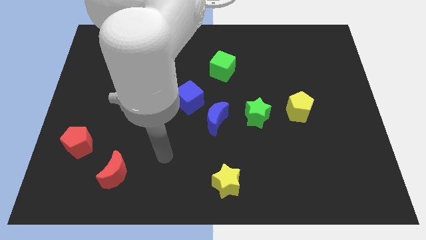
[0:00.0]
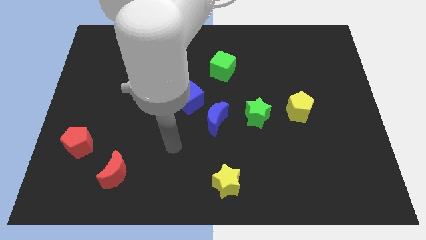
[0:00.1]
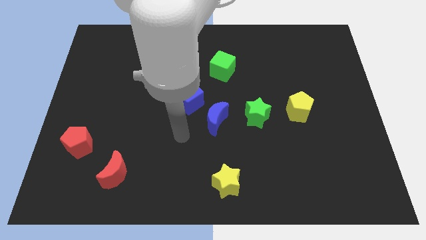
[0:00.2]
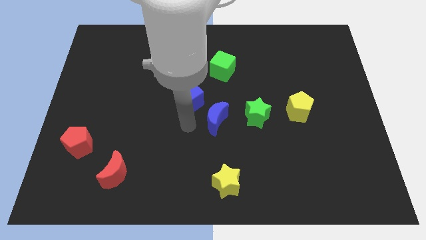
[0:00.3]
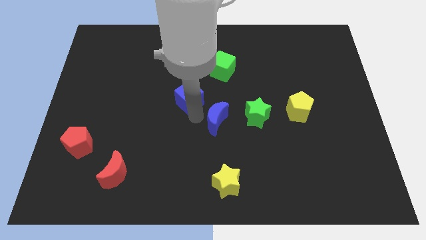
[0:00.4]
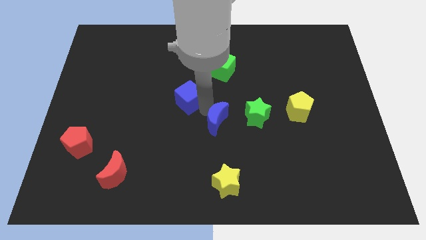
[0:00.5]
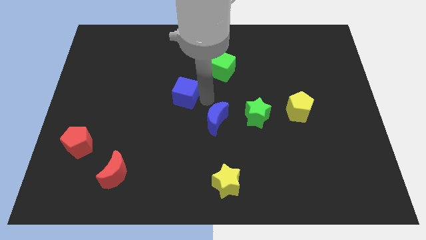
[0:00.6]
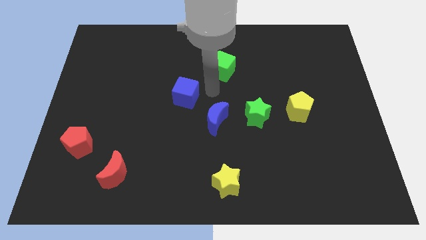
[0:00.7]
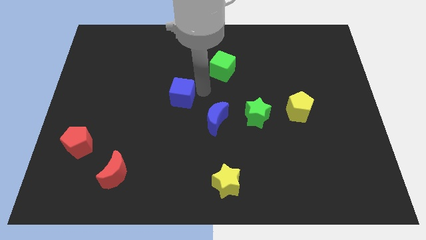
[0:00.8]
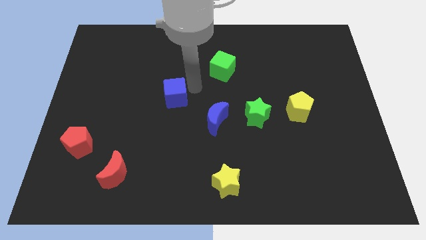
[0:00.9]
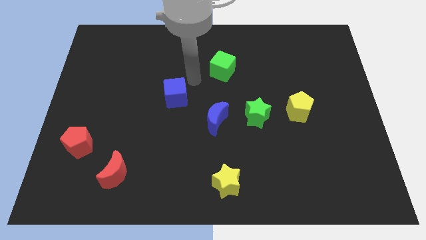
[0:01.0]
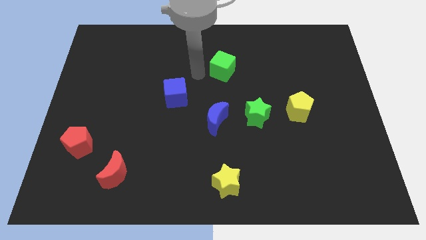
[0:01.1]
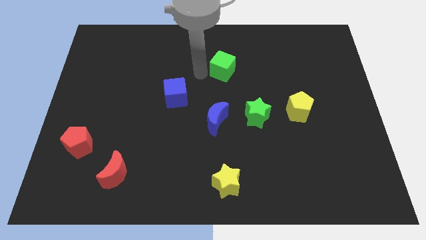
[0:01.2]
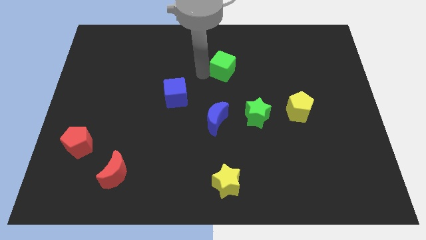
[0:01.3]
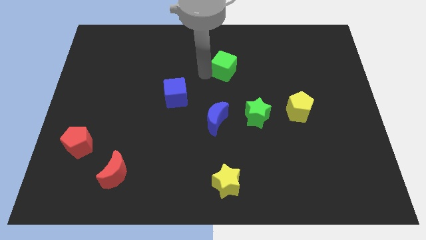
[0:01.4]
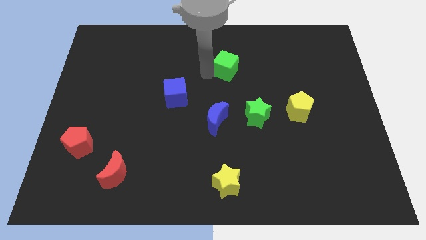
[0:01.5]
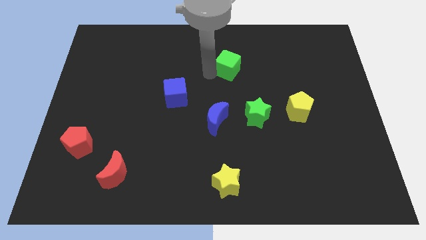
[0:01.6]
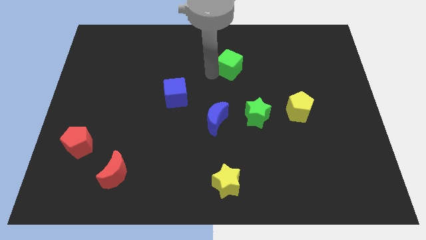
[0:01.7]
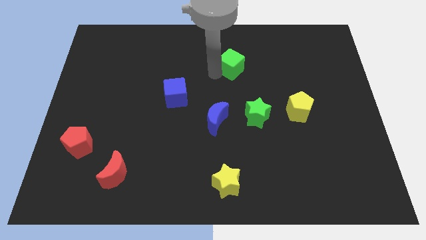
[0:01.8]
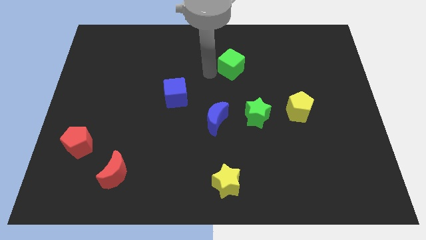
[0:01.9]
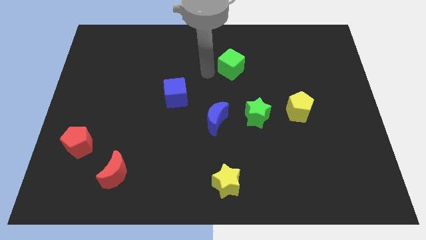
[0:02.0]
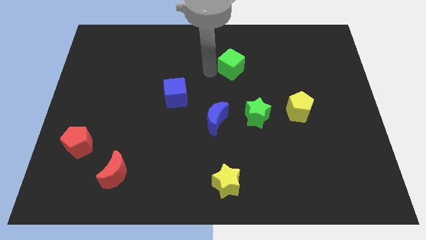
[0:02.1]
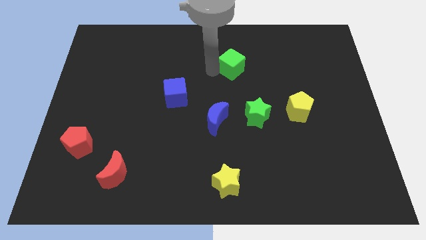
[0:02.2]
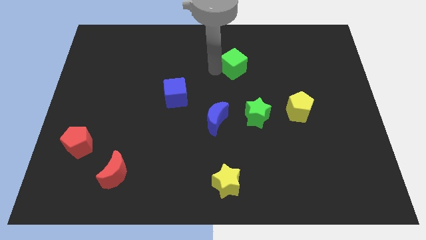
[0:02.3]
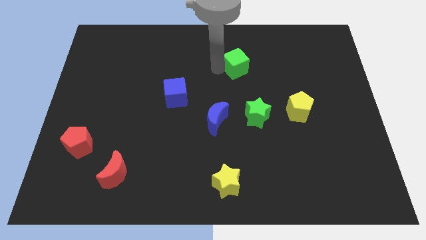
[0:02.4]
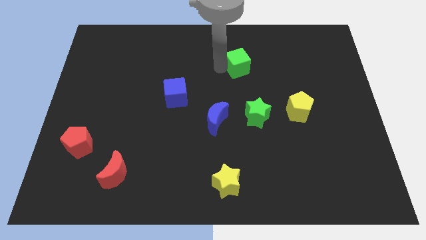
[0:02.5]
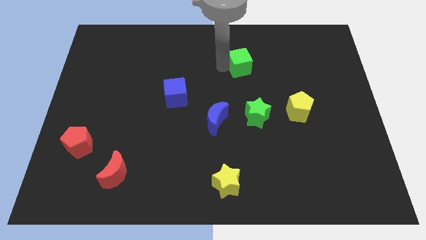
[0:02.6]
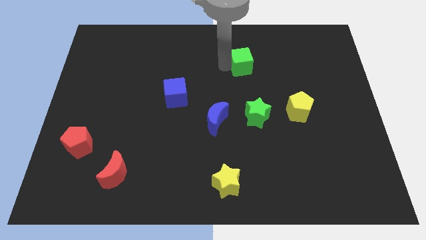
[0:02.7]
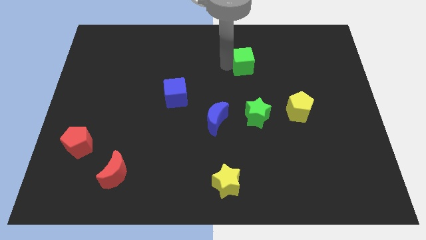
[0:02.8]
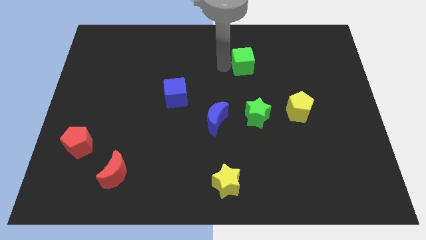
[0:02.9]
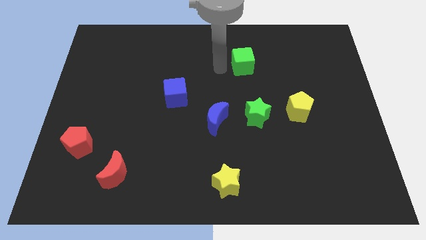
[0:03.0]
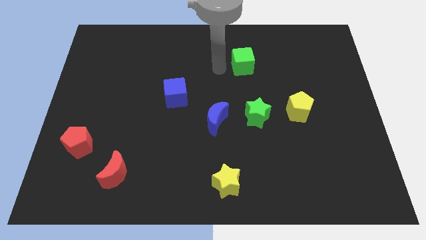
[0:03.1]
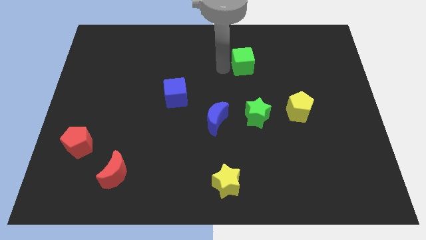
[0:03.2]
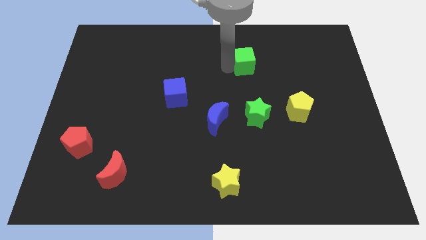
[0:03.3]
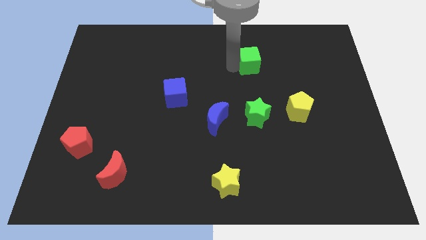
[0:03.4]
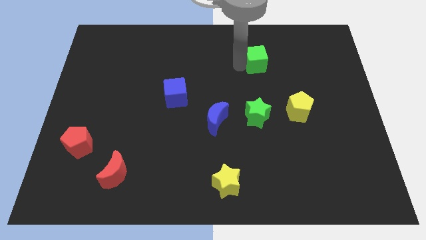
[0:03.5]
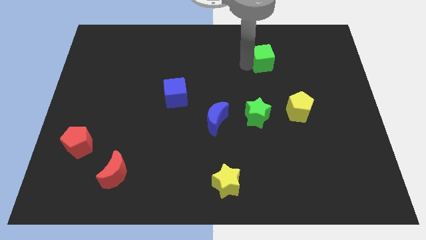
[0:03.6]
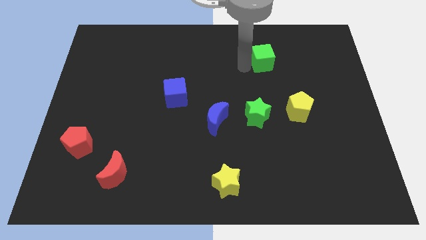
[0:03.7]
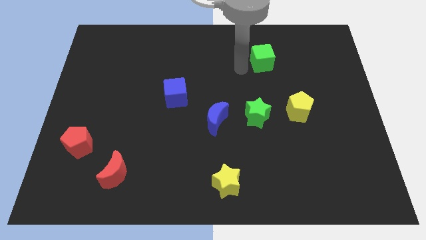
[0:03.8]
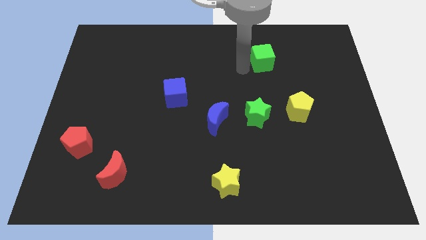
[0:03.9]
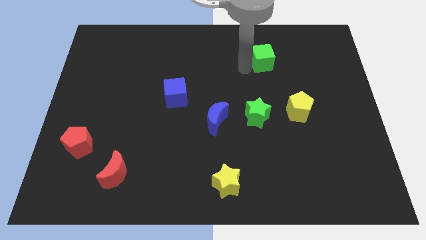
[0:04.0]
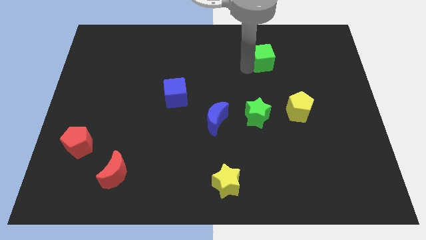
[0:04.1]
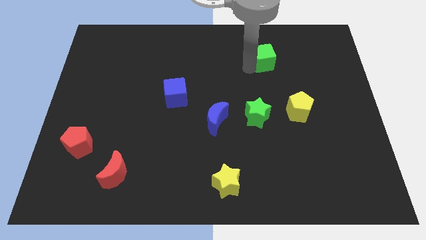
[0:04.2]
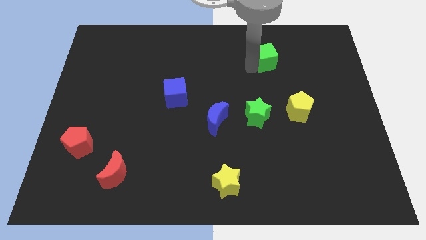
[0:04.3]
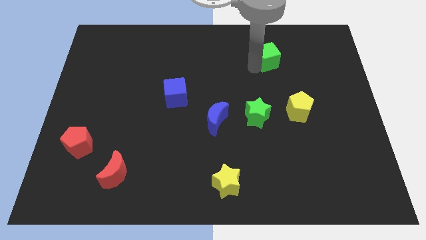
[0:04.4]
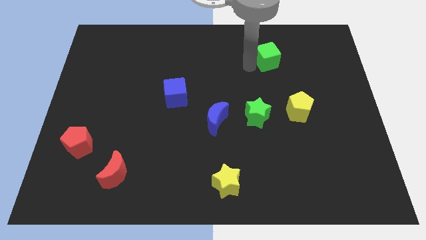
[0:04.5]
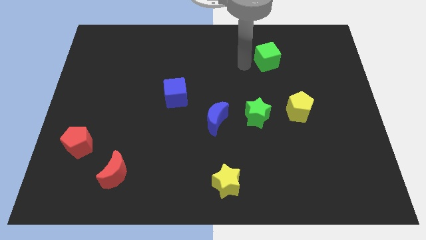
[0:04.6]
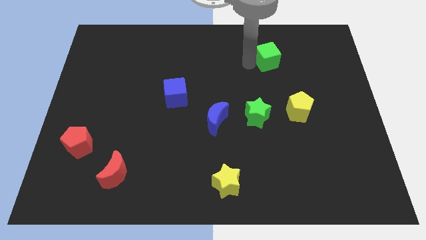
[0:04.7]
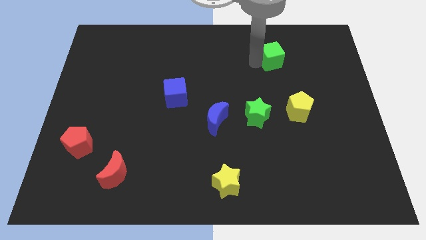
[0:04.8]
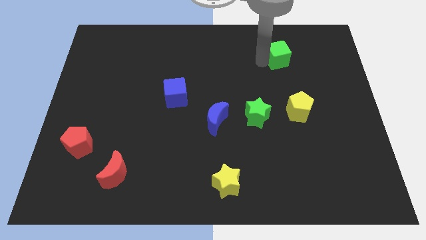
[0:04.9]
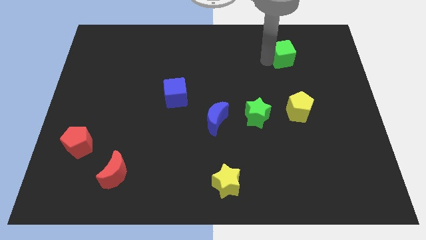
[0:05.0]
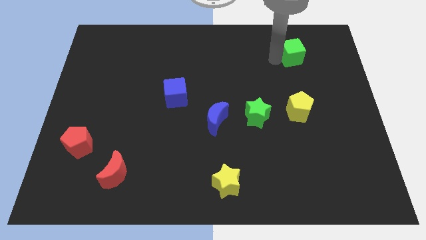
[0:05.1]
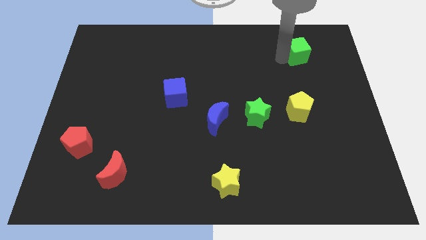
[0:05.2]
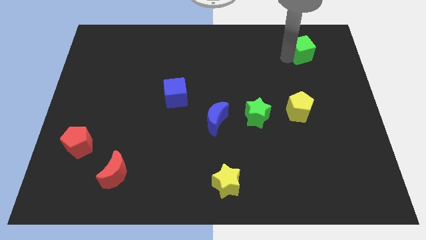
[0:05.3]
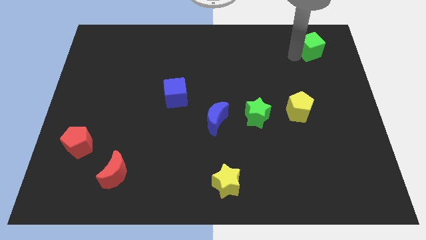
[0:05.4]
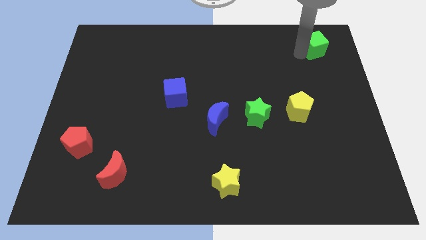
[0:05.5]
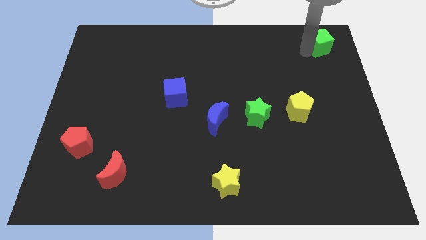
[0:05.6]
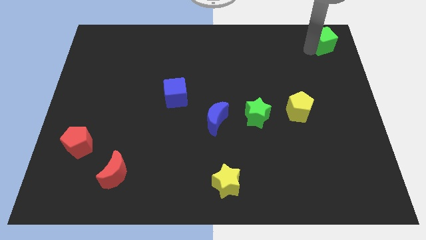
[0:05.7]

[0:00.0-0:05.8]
push the green cube to the top right corner

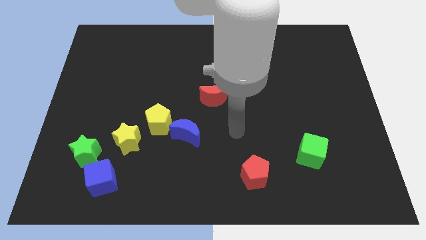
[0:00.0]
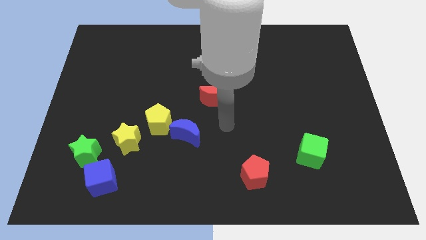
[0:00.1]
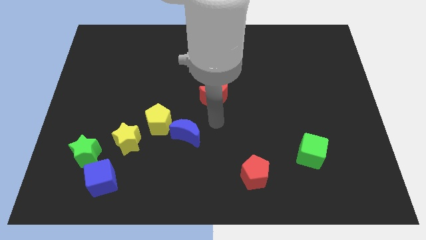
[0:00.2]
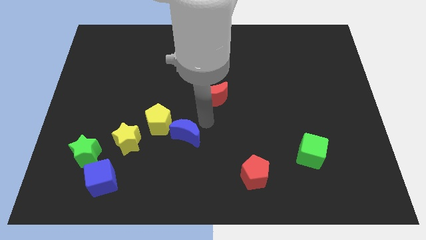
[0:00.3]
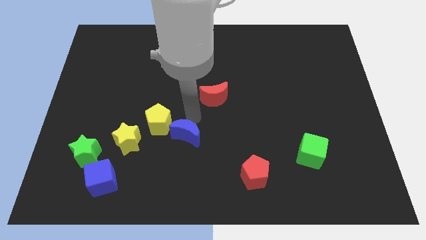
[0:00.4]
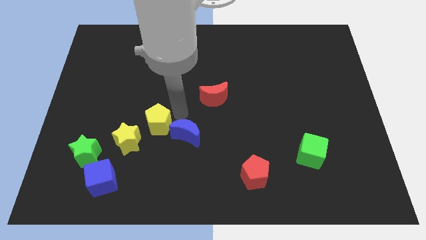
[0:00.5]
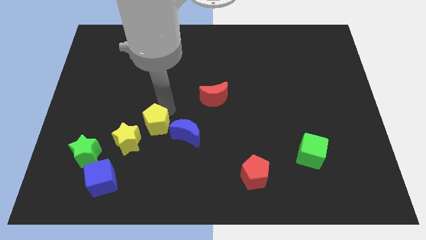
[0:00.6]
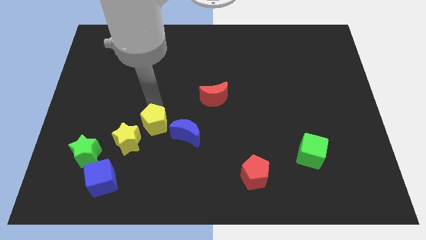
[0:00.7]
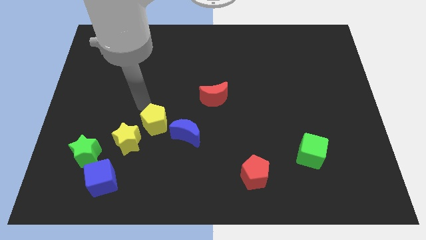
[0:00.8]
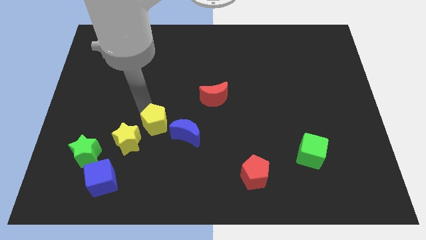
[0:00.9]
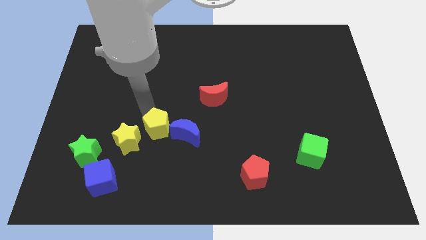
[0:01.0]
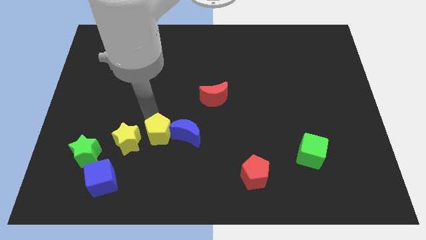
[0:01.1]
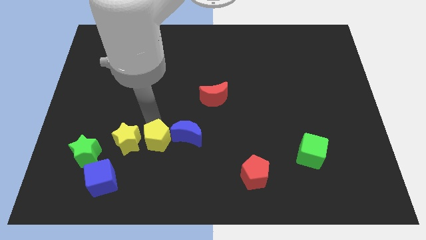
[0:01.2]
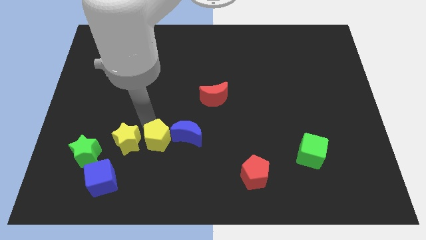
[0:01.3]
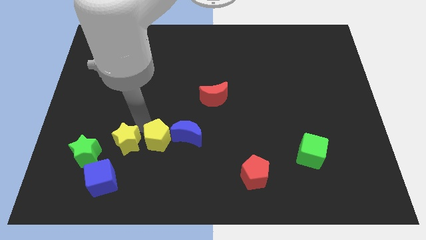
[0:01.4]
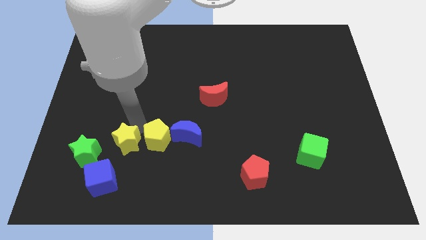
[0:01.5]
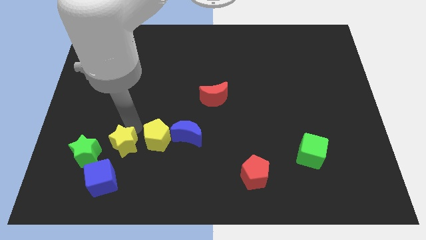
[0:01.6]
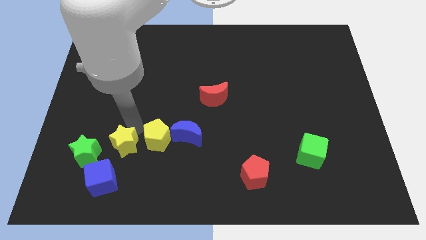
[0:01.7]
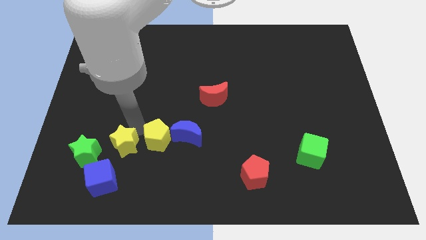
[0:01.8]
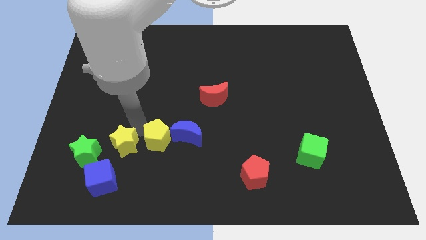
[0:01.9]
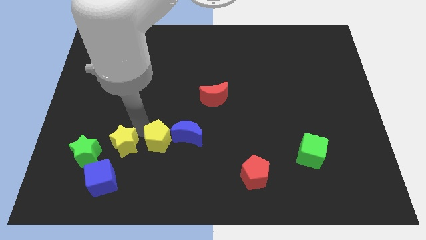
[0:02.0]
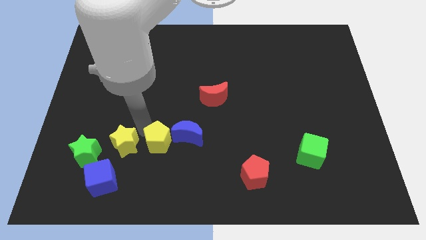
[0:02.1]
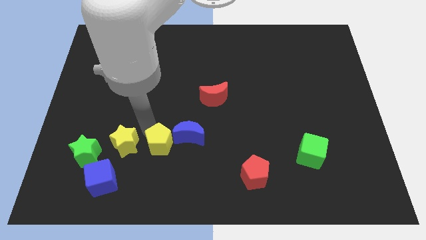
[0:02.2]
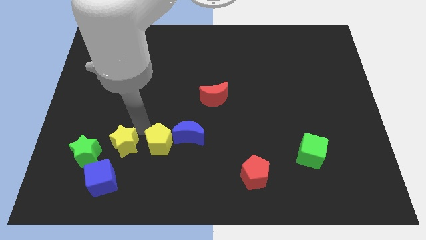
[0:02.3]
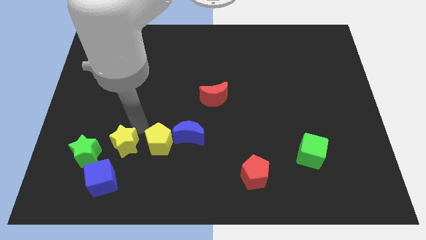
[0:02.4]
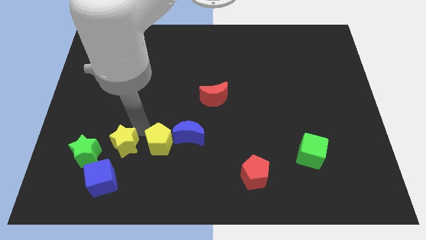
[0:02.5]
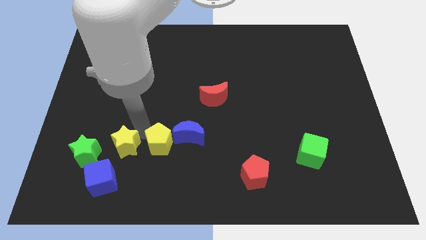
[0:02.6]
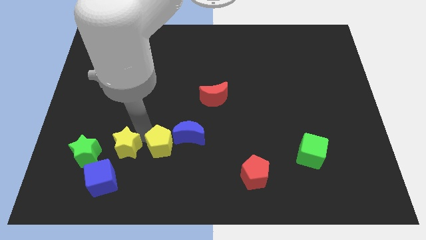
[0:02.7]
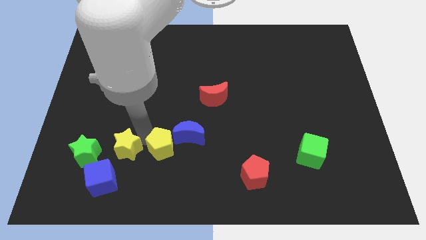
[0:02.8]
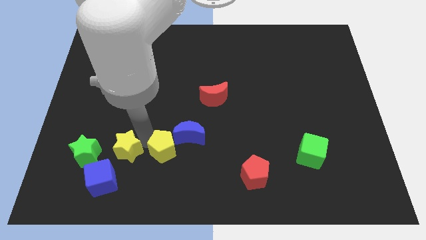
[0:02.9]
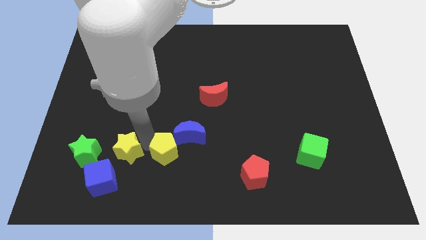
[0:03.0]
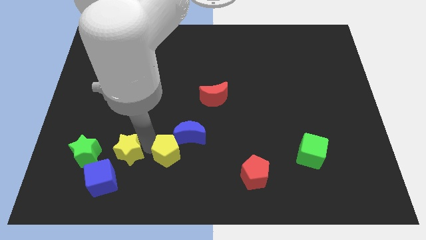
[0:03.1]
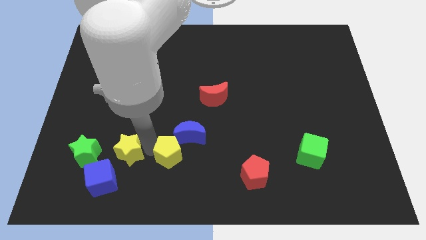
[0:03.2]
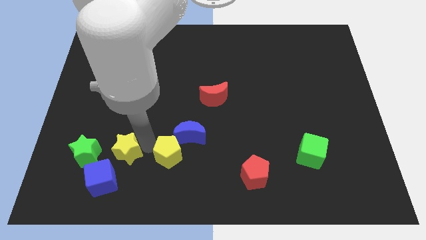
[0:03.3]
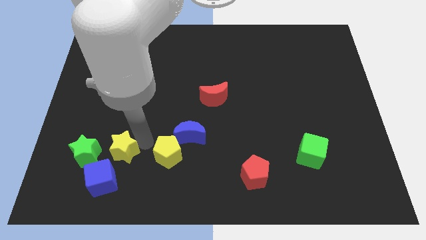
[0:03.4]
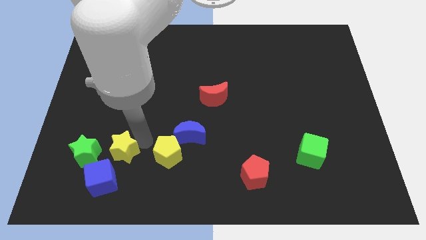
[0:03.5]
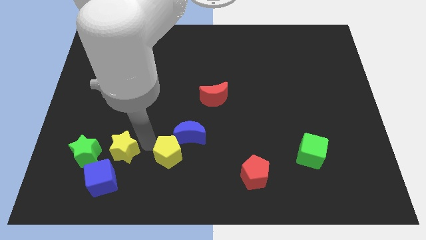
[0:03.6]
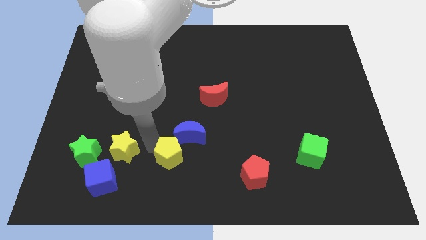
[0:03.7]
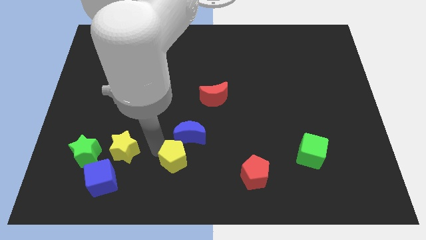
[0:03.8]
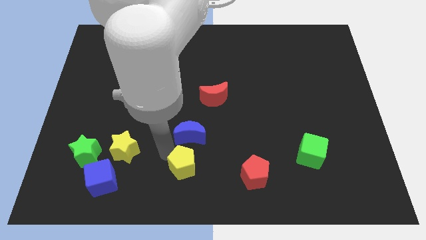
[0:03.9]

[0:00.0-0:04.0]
slide the yellow pentagon to the bottom side
